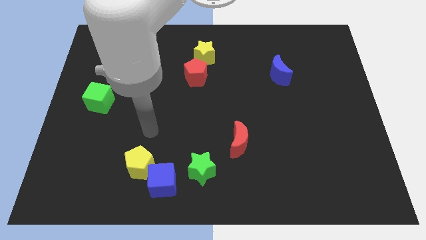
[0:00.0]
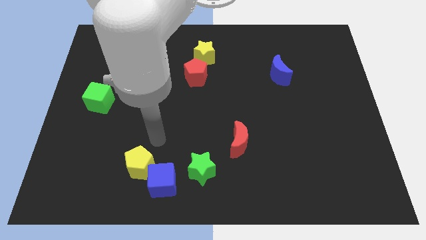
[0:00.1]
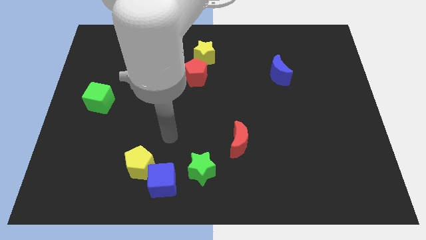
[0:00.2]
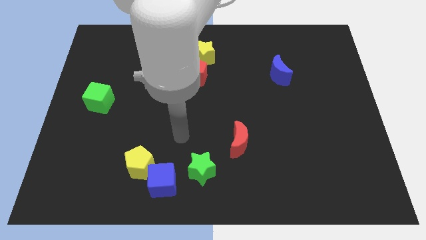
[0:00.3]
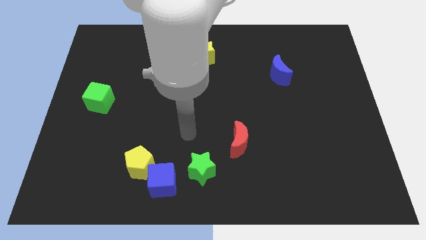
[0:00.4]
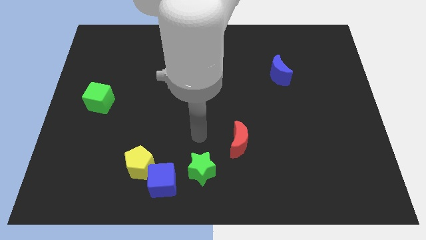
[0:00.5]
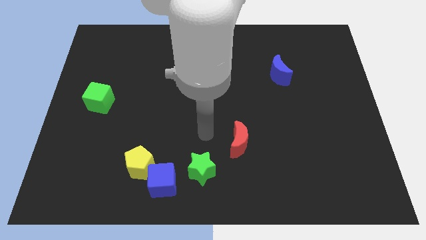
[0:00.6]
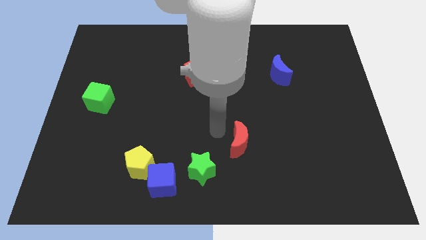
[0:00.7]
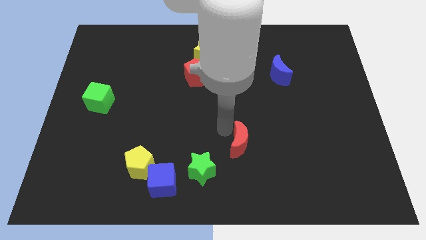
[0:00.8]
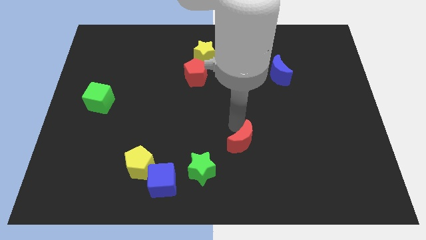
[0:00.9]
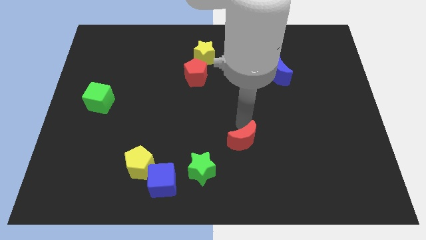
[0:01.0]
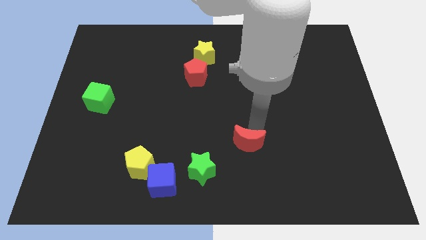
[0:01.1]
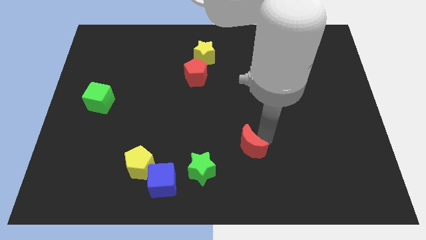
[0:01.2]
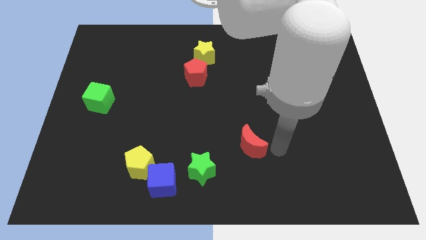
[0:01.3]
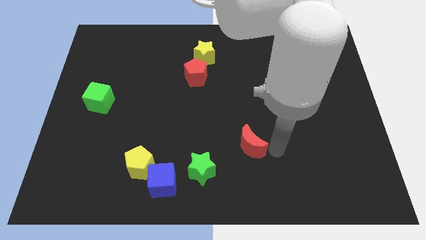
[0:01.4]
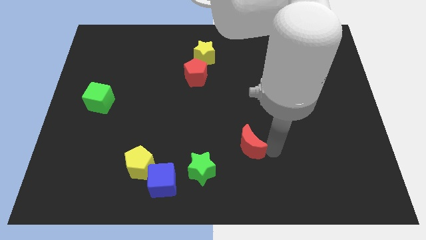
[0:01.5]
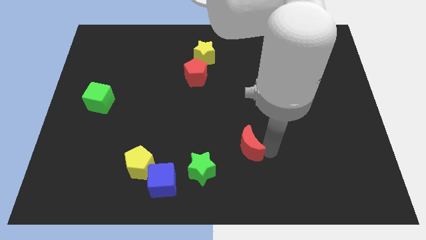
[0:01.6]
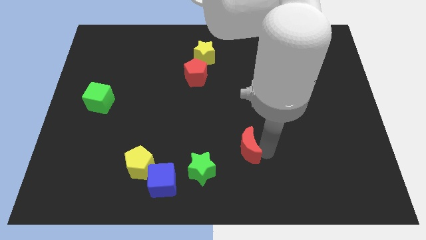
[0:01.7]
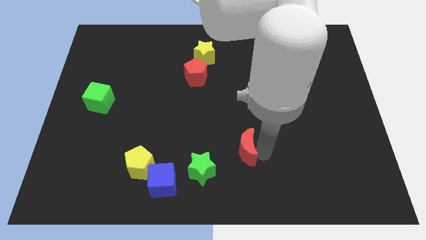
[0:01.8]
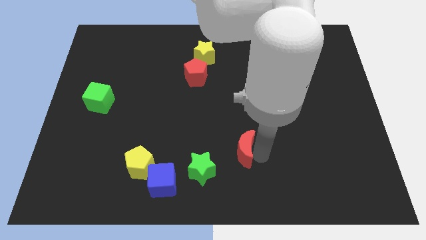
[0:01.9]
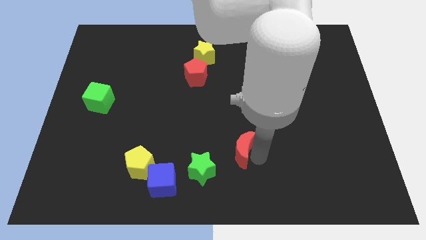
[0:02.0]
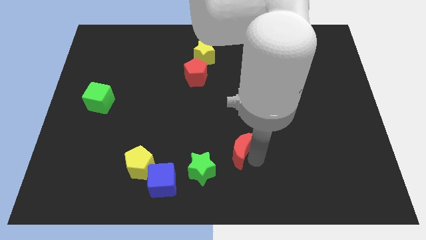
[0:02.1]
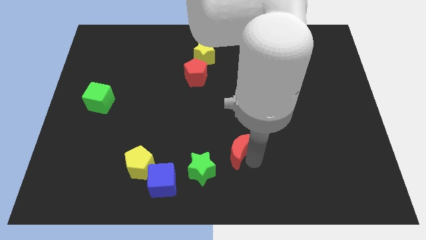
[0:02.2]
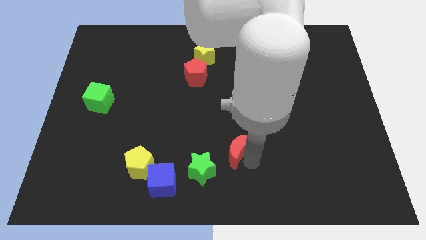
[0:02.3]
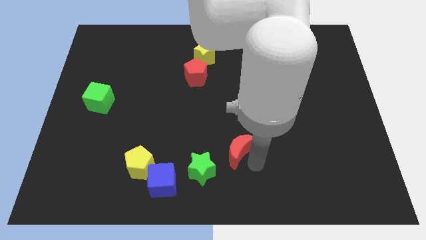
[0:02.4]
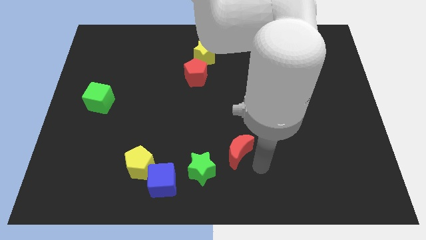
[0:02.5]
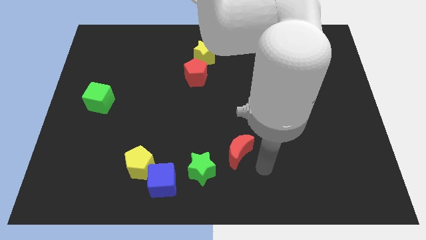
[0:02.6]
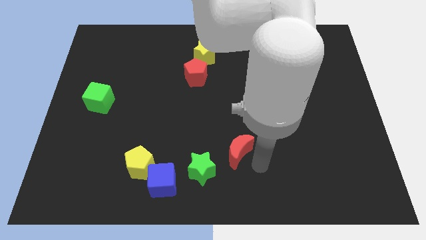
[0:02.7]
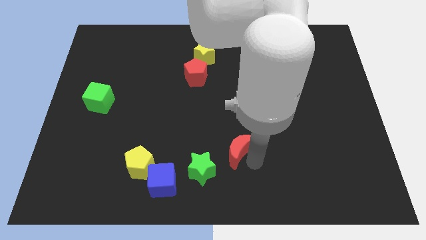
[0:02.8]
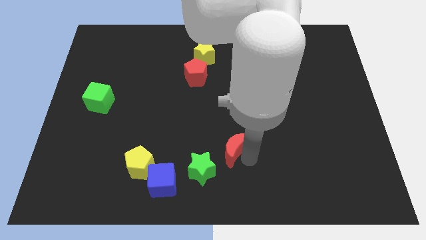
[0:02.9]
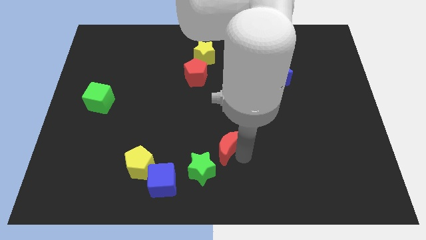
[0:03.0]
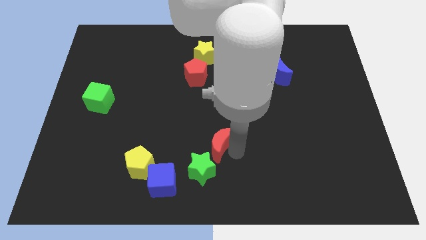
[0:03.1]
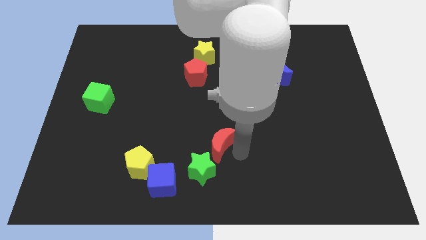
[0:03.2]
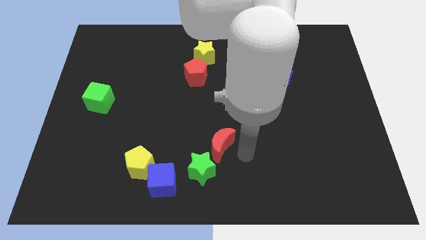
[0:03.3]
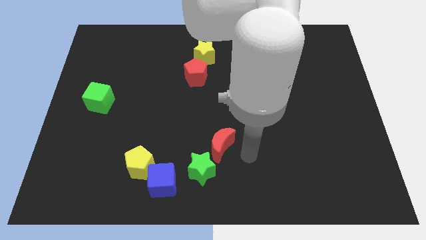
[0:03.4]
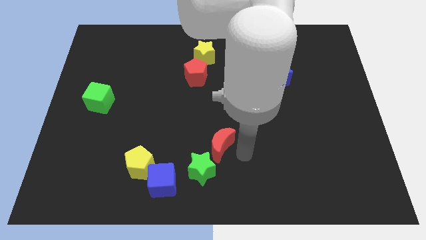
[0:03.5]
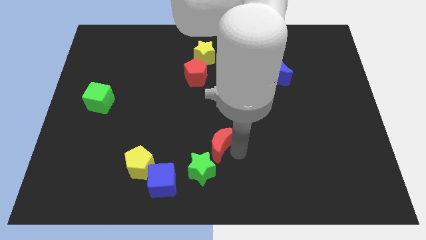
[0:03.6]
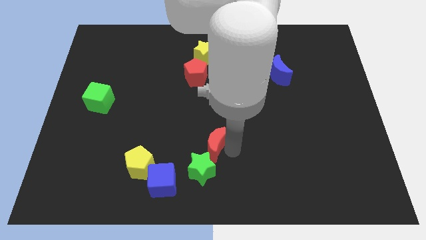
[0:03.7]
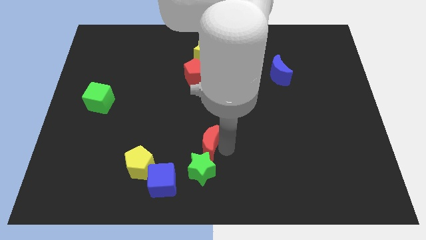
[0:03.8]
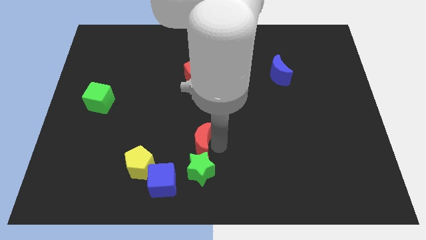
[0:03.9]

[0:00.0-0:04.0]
push the red moon to the left somewhat

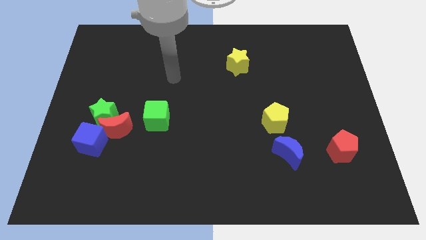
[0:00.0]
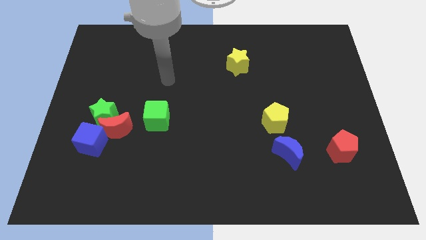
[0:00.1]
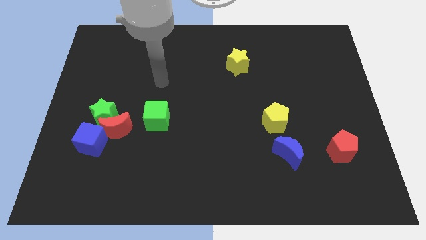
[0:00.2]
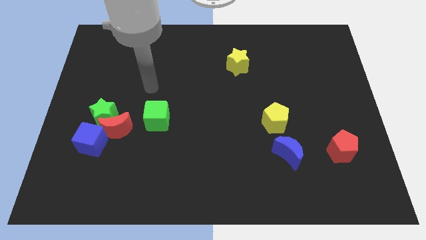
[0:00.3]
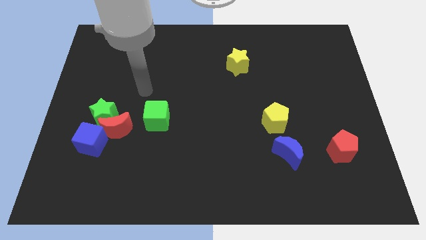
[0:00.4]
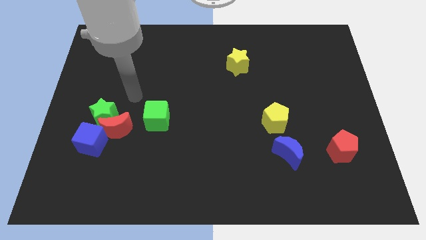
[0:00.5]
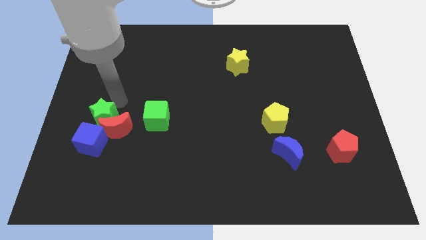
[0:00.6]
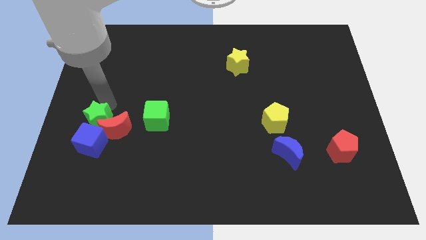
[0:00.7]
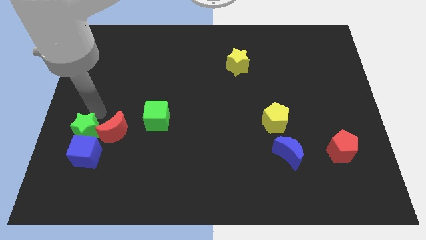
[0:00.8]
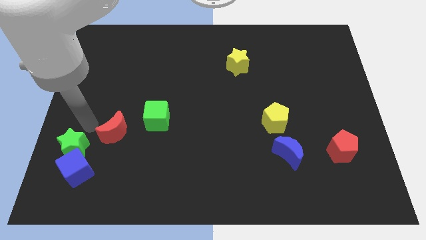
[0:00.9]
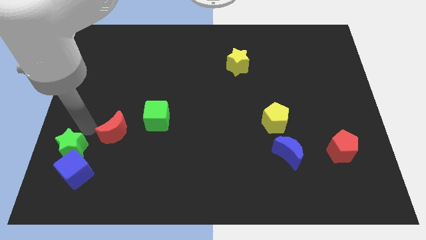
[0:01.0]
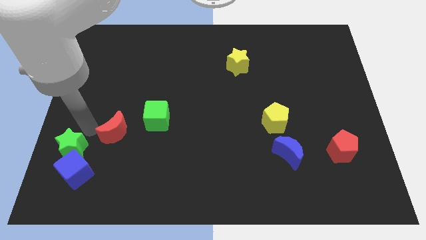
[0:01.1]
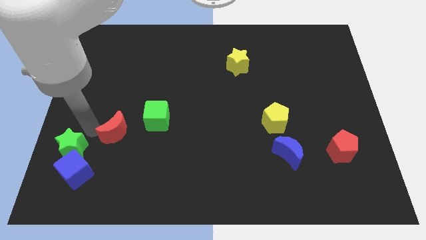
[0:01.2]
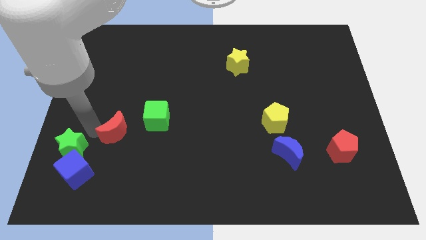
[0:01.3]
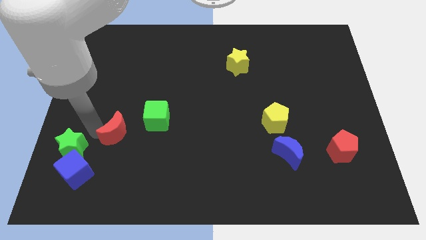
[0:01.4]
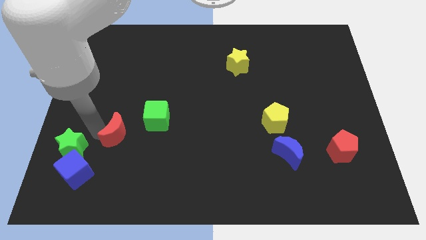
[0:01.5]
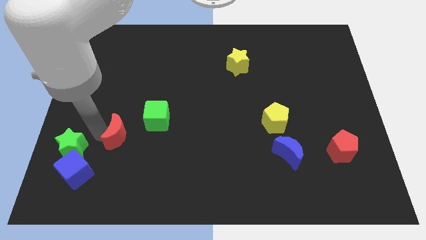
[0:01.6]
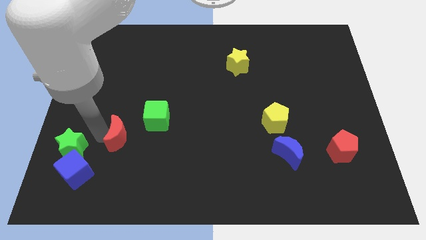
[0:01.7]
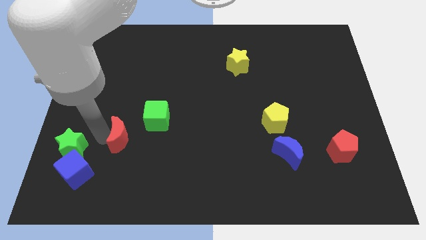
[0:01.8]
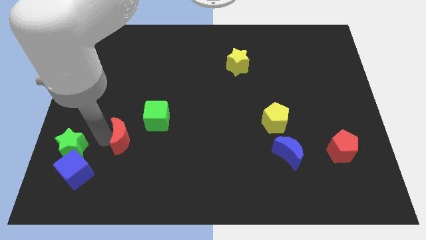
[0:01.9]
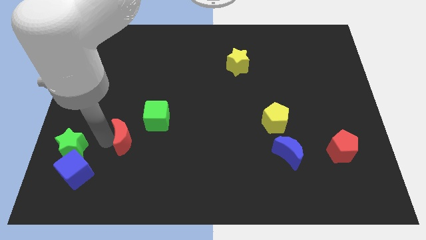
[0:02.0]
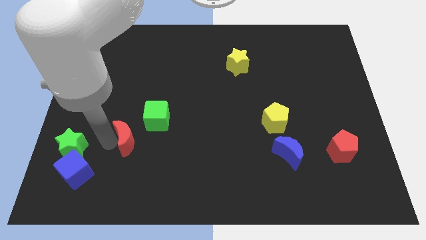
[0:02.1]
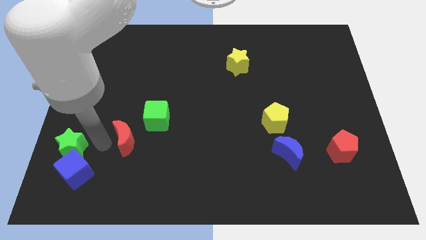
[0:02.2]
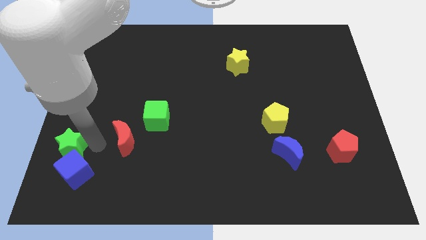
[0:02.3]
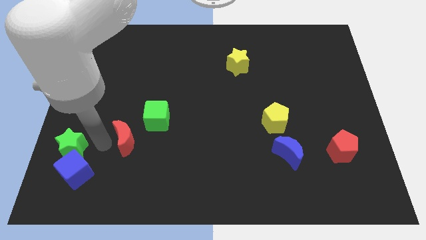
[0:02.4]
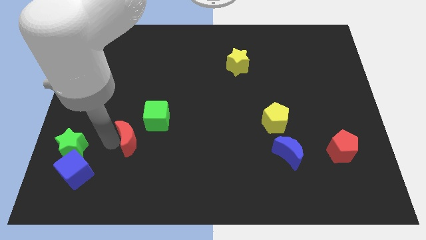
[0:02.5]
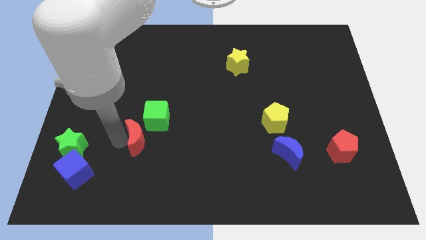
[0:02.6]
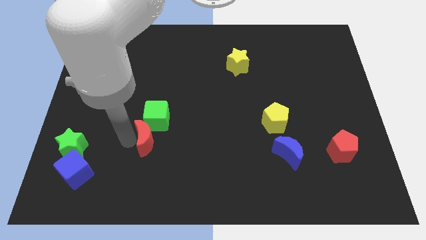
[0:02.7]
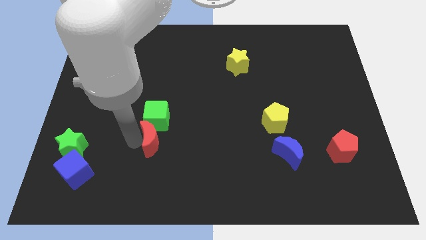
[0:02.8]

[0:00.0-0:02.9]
slide the red moon right somewhat

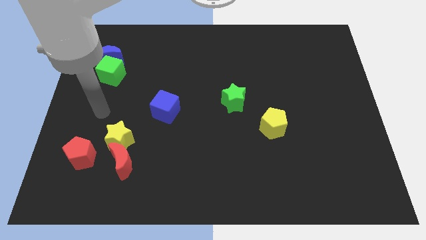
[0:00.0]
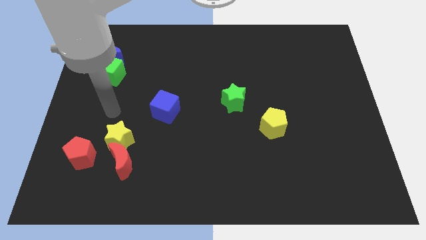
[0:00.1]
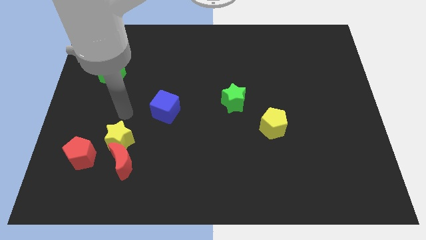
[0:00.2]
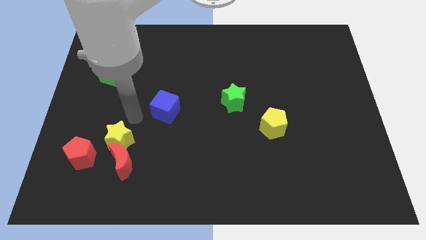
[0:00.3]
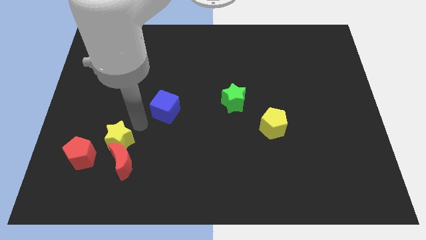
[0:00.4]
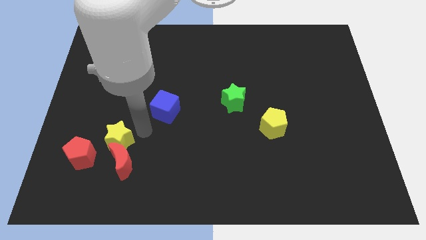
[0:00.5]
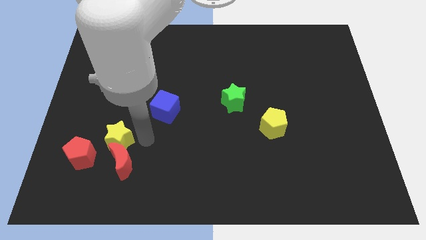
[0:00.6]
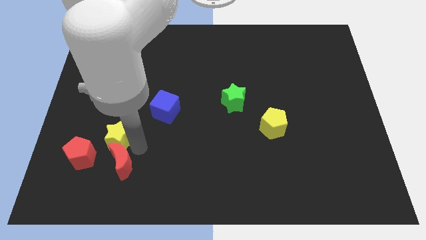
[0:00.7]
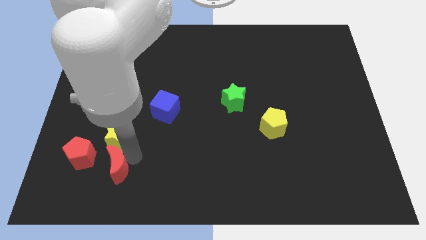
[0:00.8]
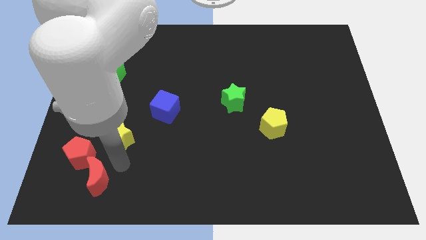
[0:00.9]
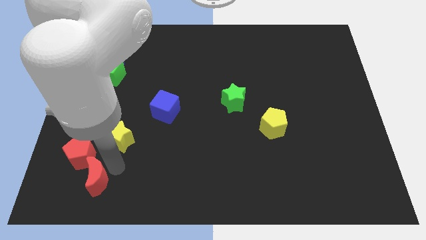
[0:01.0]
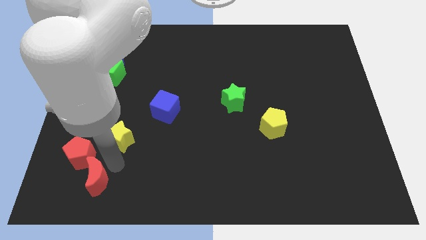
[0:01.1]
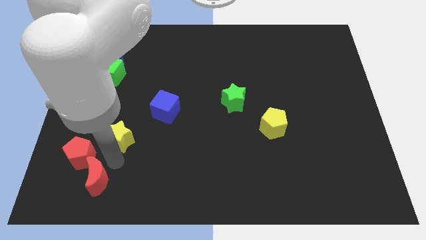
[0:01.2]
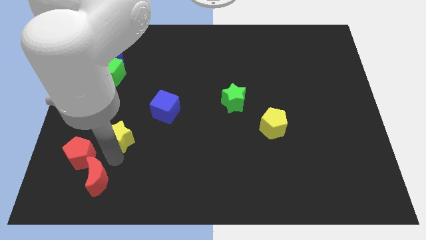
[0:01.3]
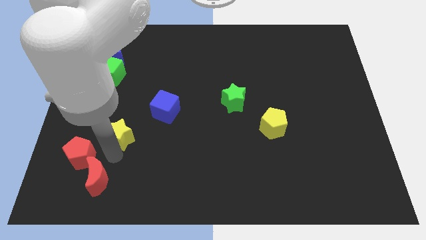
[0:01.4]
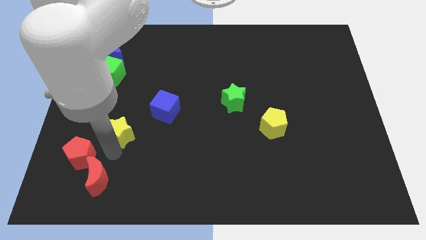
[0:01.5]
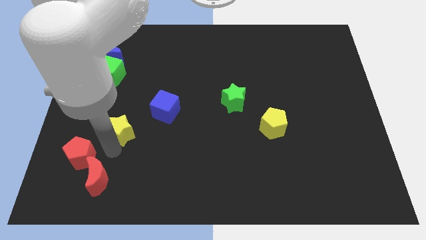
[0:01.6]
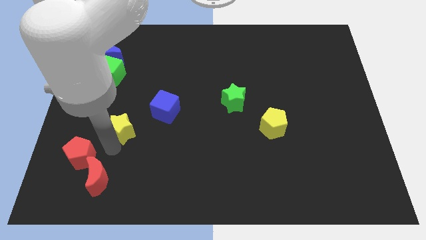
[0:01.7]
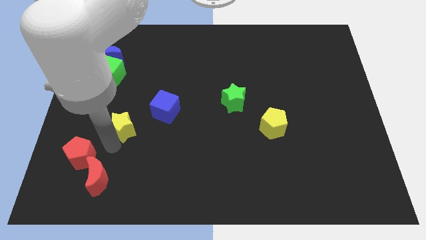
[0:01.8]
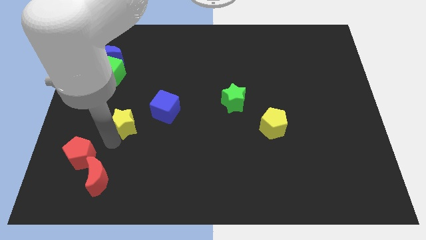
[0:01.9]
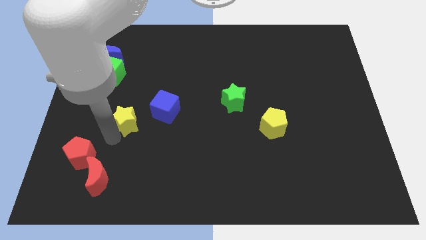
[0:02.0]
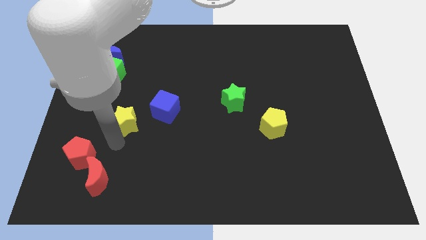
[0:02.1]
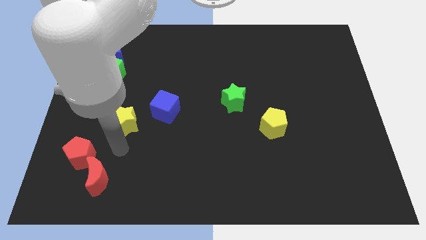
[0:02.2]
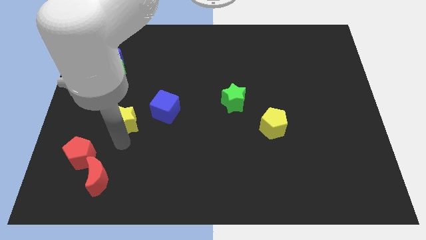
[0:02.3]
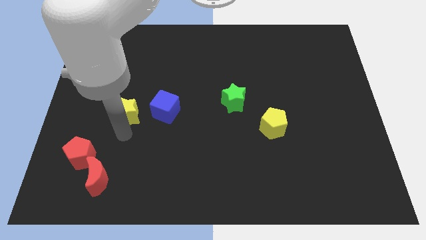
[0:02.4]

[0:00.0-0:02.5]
move the yellow star a little bit up
